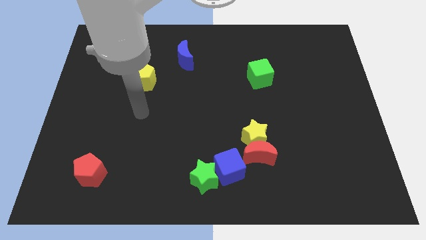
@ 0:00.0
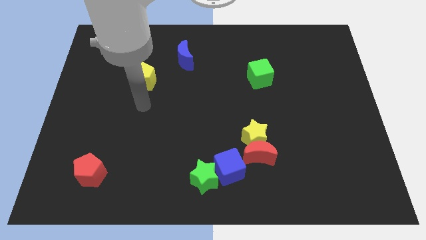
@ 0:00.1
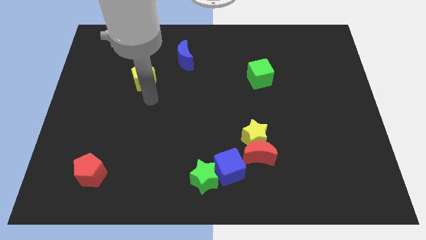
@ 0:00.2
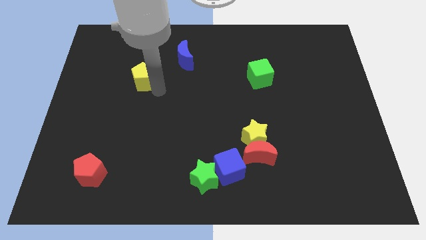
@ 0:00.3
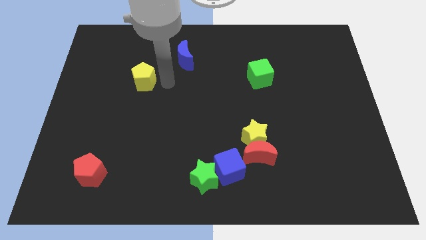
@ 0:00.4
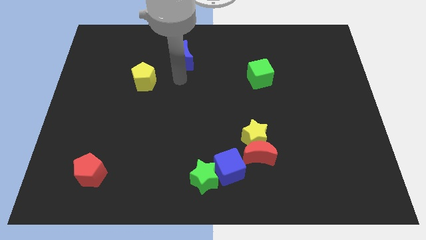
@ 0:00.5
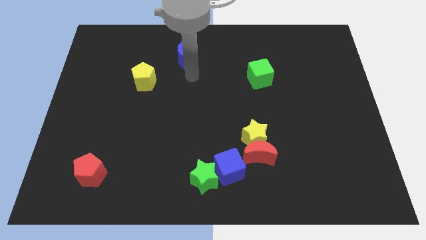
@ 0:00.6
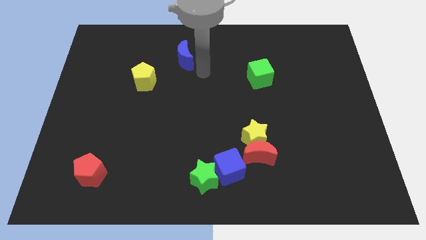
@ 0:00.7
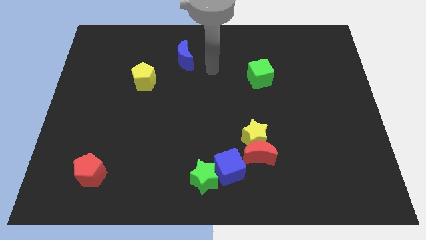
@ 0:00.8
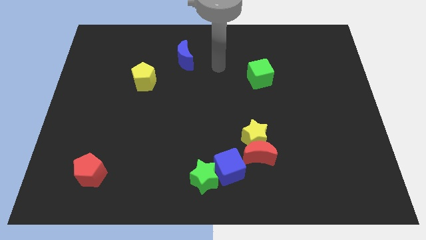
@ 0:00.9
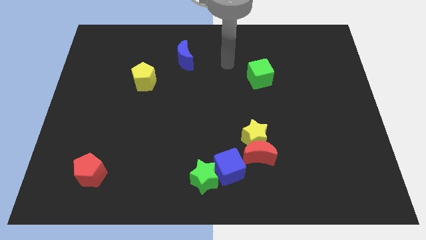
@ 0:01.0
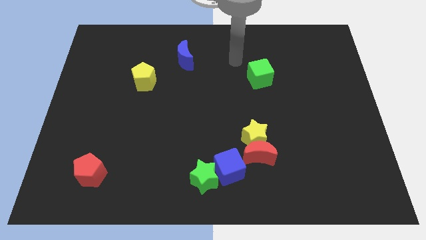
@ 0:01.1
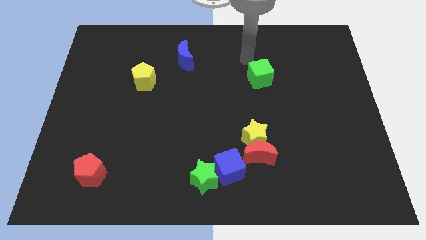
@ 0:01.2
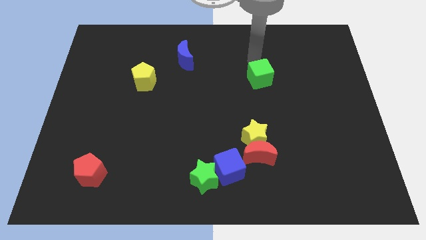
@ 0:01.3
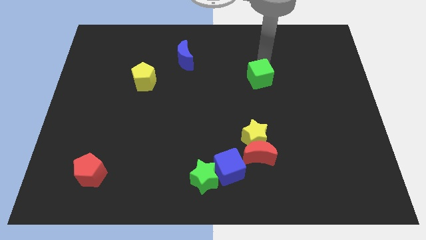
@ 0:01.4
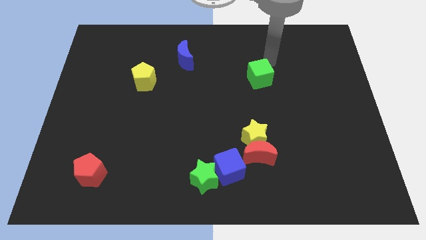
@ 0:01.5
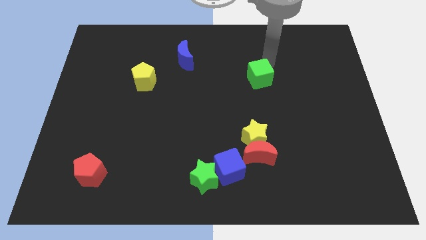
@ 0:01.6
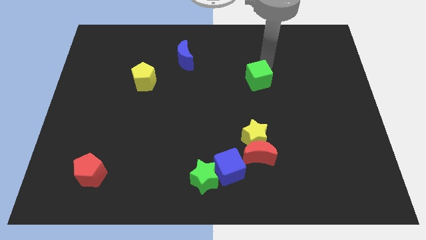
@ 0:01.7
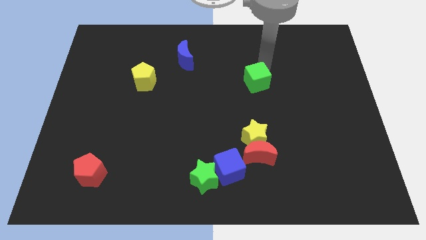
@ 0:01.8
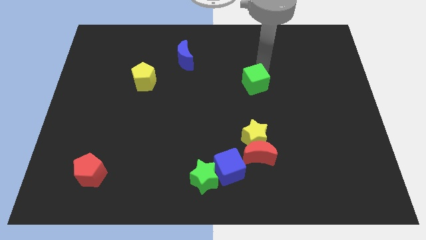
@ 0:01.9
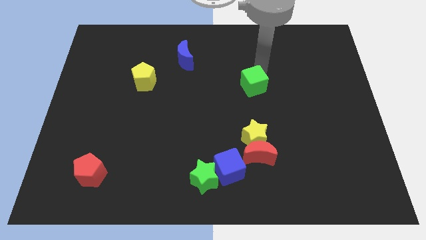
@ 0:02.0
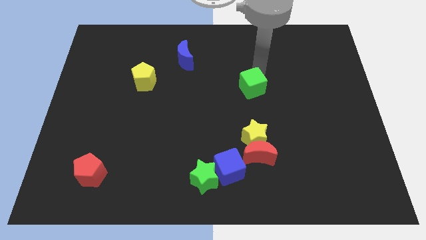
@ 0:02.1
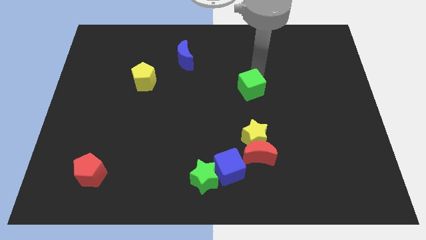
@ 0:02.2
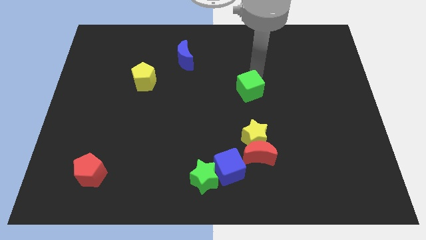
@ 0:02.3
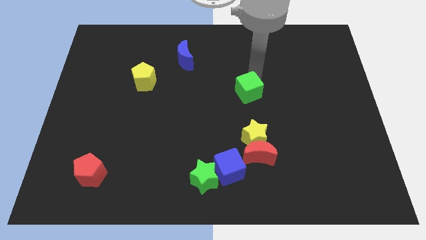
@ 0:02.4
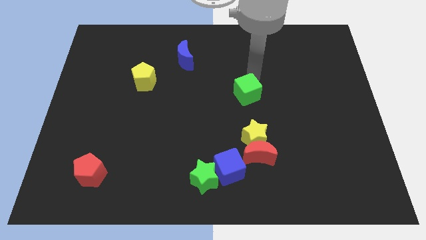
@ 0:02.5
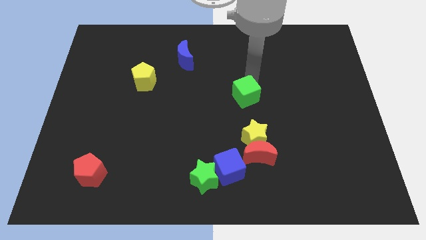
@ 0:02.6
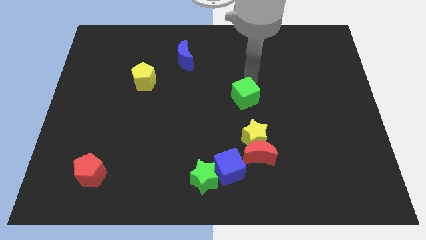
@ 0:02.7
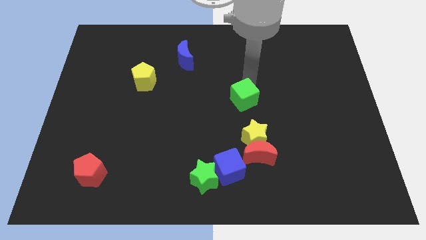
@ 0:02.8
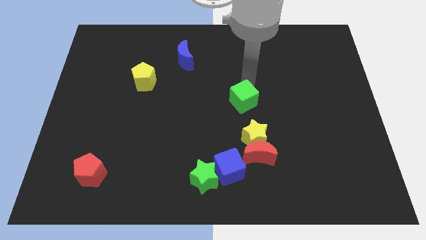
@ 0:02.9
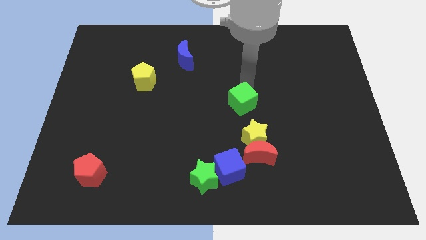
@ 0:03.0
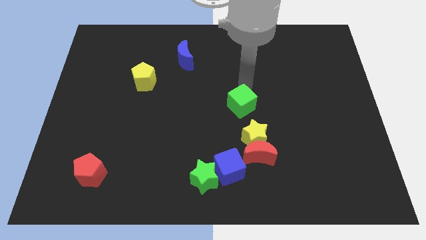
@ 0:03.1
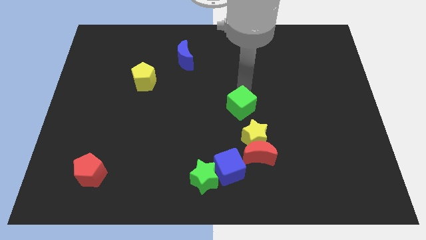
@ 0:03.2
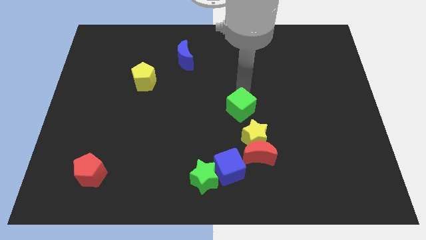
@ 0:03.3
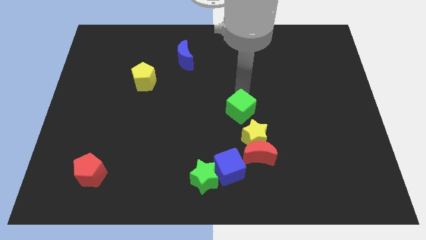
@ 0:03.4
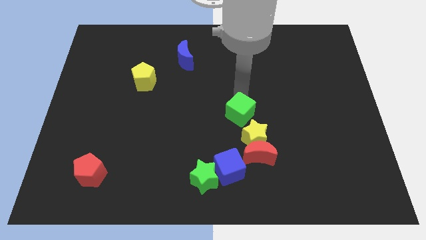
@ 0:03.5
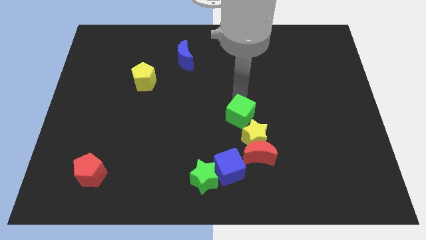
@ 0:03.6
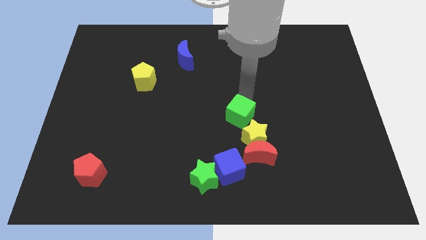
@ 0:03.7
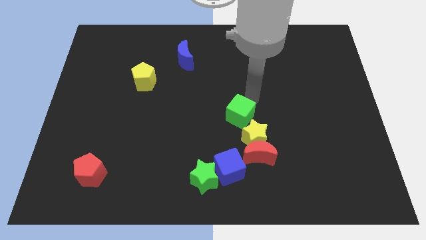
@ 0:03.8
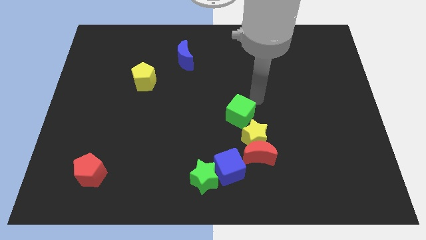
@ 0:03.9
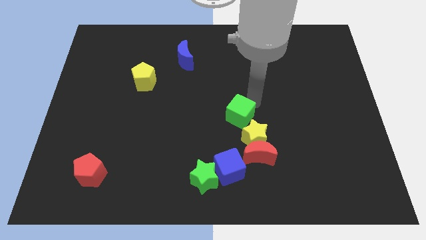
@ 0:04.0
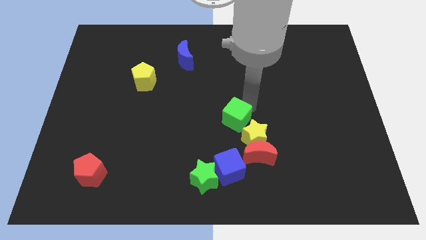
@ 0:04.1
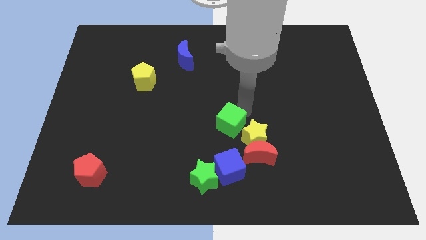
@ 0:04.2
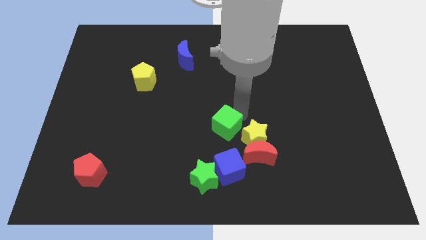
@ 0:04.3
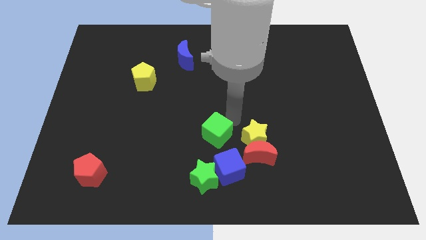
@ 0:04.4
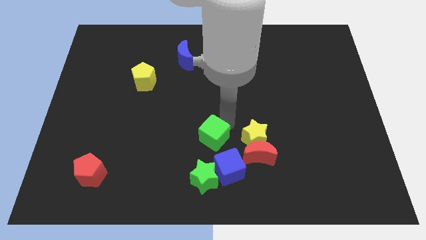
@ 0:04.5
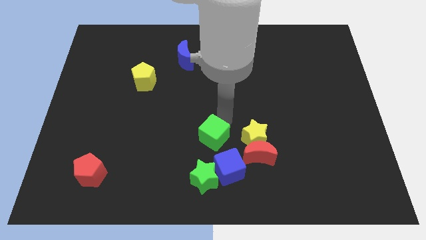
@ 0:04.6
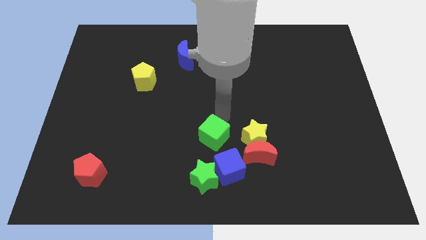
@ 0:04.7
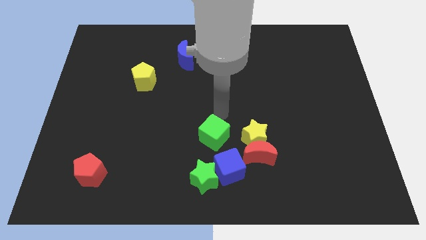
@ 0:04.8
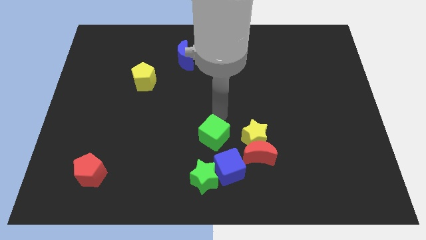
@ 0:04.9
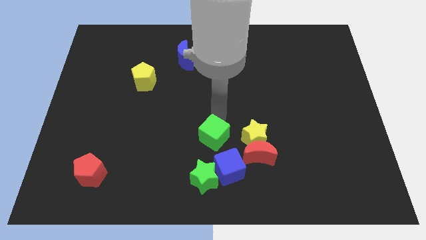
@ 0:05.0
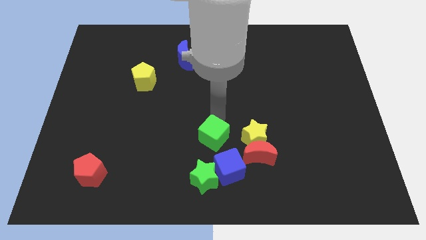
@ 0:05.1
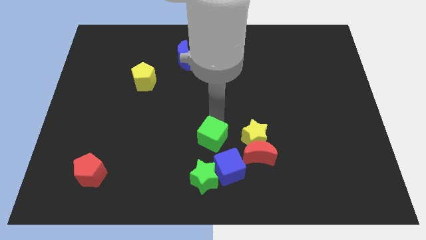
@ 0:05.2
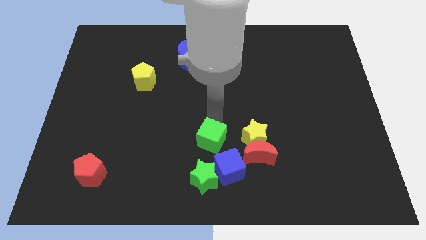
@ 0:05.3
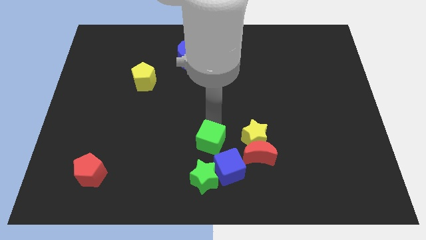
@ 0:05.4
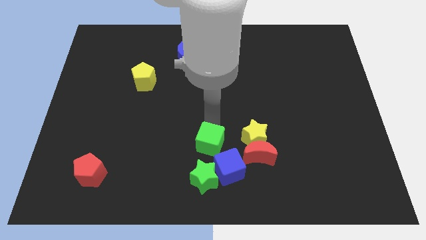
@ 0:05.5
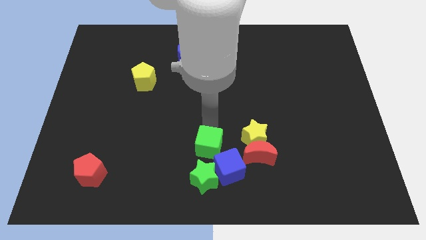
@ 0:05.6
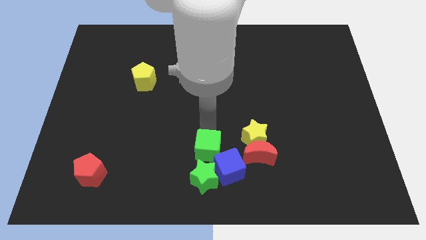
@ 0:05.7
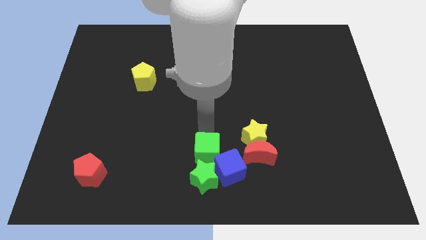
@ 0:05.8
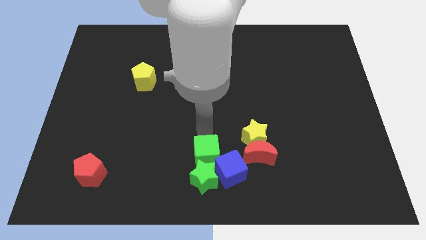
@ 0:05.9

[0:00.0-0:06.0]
slide the green cube next to the green star

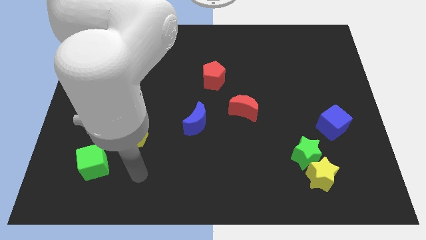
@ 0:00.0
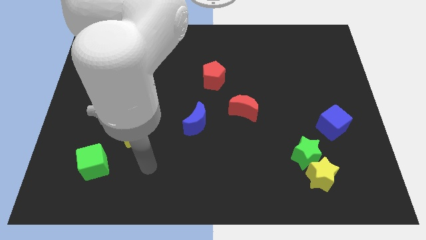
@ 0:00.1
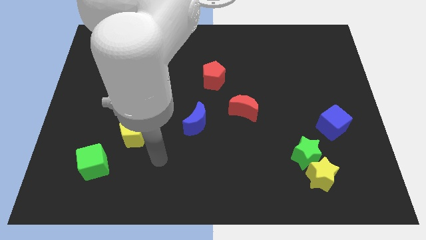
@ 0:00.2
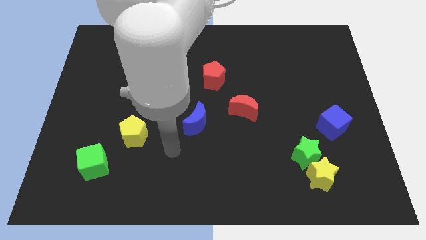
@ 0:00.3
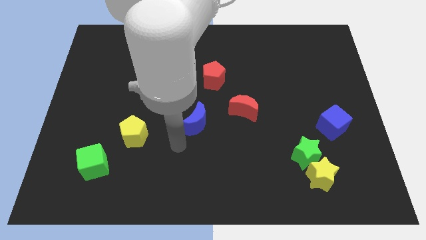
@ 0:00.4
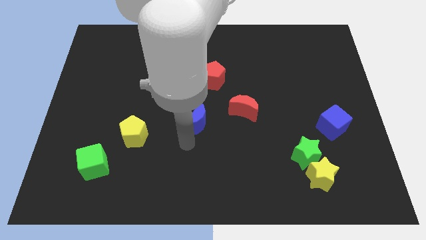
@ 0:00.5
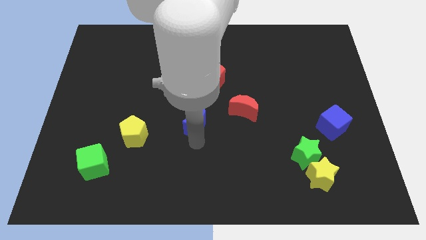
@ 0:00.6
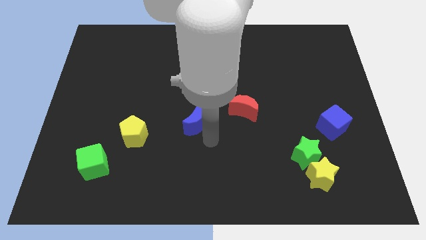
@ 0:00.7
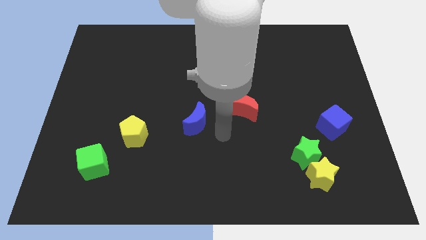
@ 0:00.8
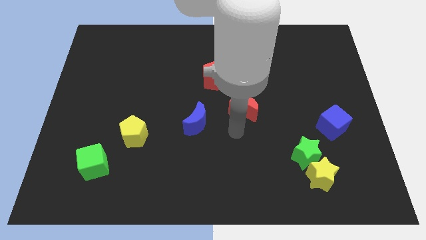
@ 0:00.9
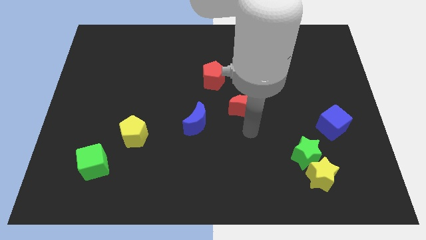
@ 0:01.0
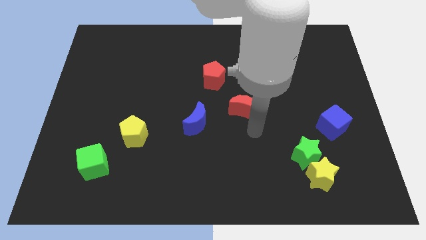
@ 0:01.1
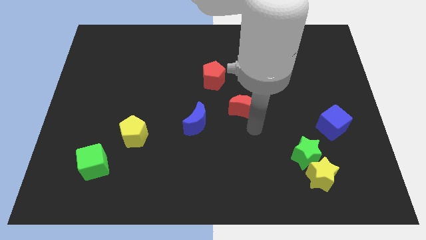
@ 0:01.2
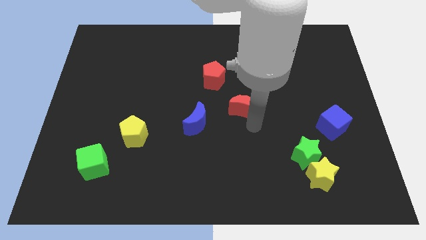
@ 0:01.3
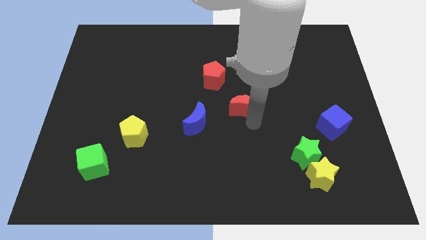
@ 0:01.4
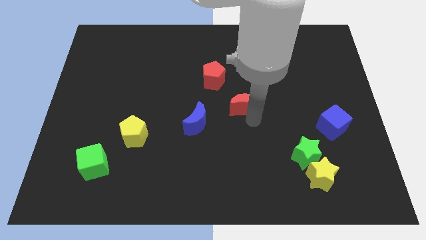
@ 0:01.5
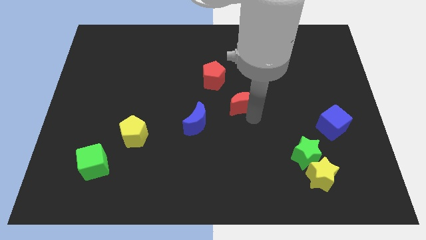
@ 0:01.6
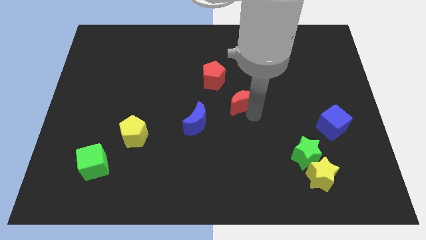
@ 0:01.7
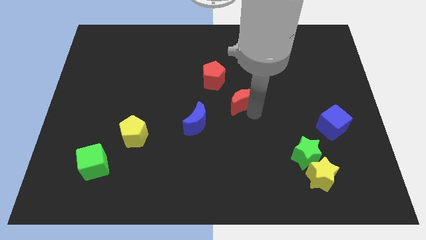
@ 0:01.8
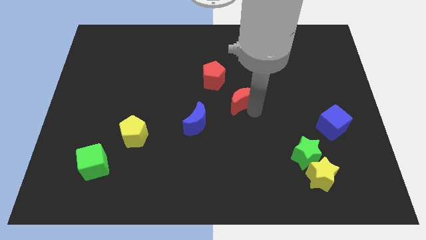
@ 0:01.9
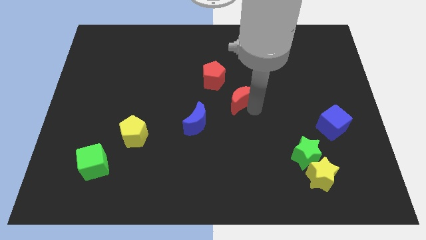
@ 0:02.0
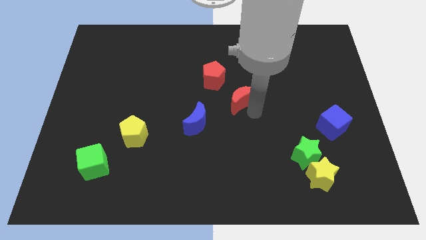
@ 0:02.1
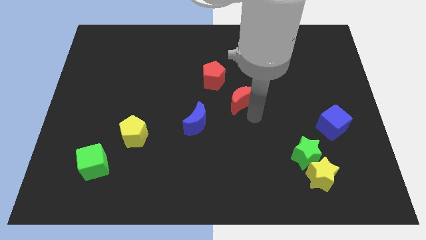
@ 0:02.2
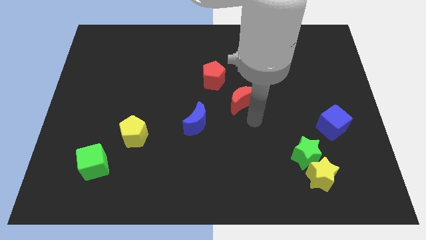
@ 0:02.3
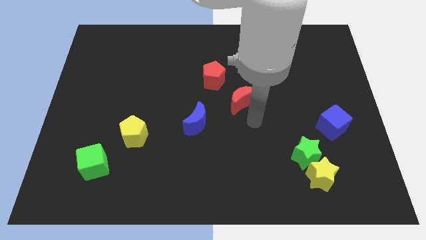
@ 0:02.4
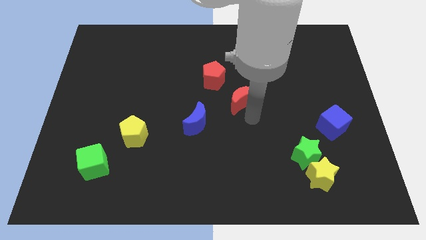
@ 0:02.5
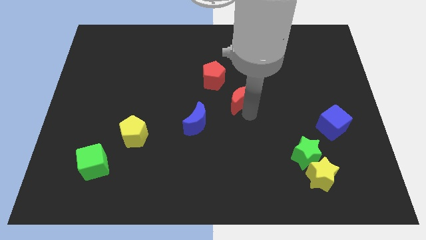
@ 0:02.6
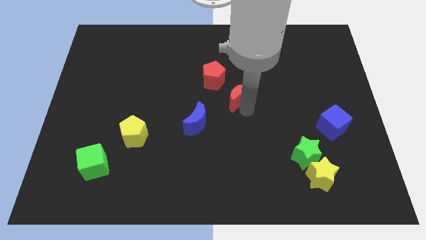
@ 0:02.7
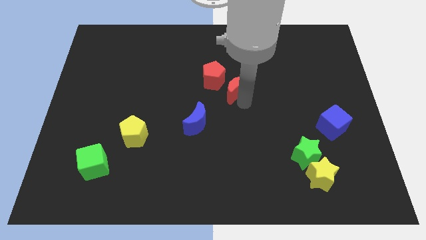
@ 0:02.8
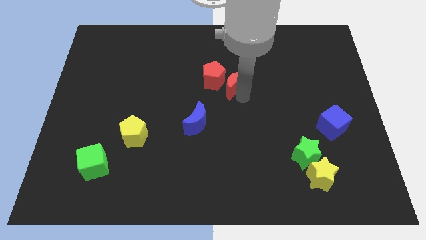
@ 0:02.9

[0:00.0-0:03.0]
slide the red moon close to the red pentagon
